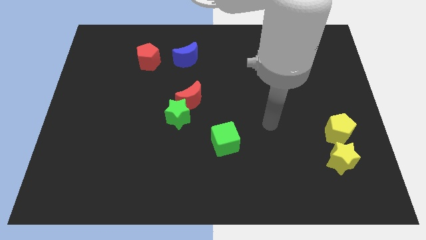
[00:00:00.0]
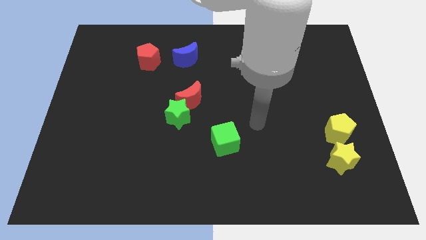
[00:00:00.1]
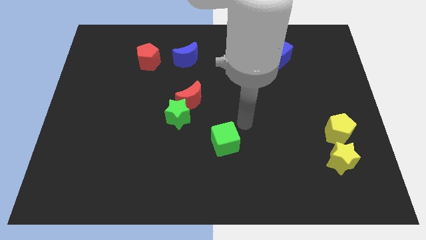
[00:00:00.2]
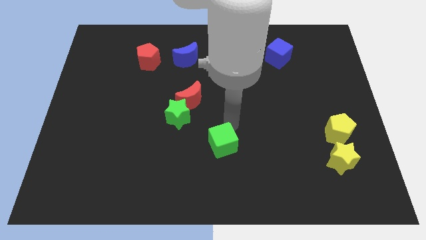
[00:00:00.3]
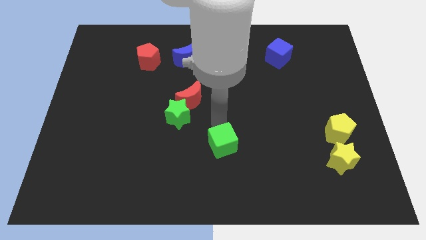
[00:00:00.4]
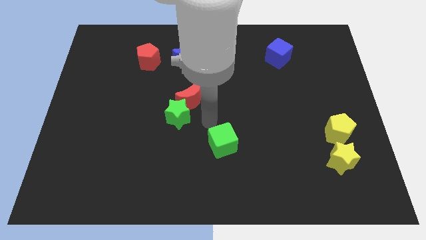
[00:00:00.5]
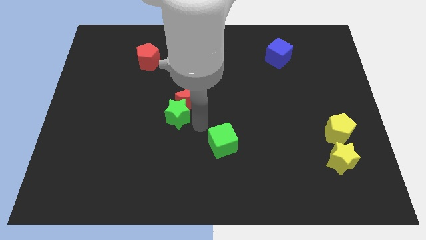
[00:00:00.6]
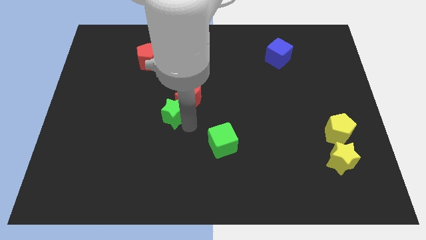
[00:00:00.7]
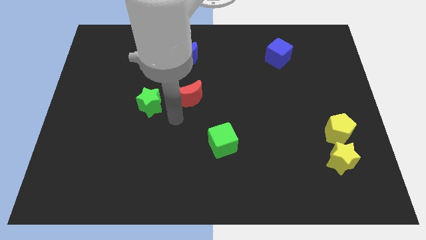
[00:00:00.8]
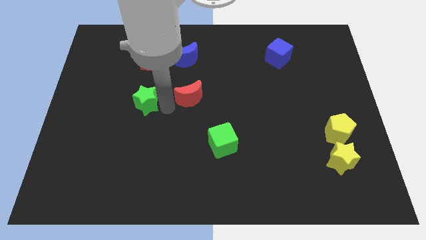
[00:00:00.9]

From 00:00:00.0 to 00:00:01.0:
pull the red moon apart from the green star

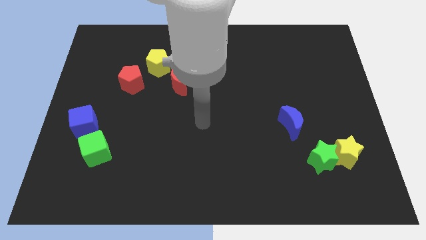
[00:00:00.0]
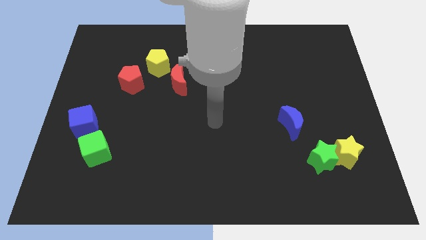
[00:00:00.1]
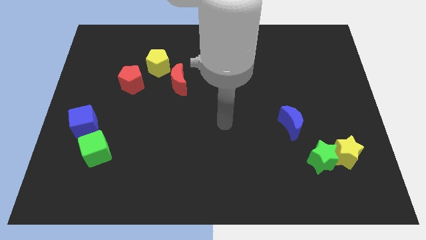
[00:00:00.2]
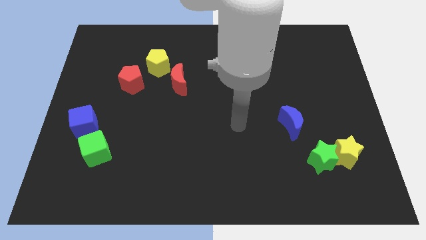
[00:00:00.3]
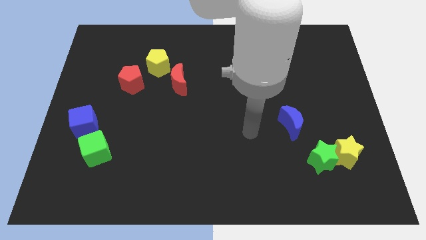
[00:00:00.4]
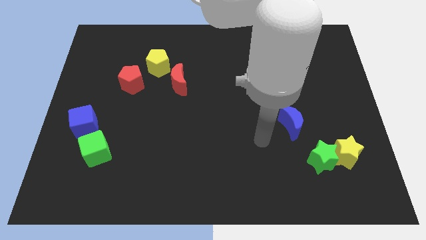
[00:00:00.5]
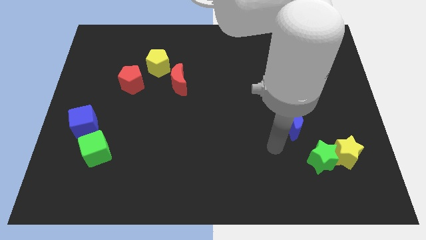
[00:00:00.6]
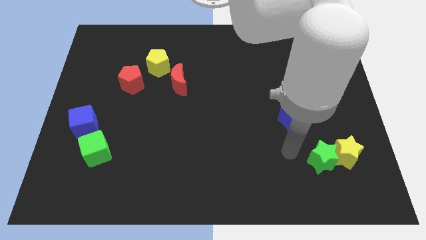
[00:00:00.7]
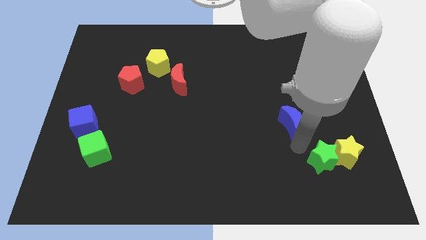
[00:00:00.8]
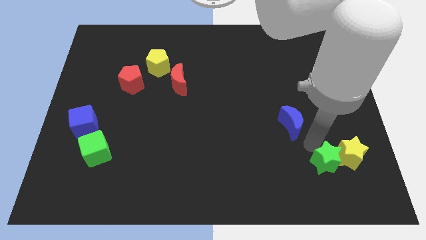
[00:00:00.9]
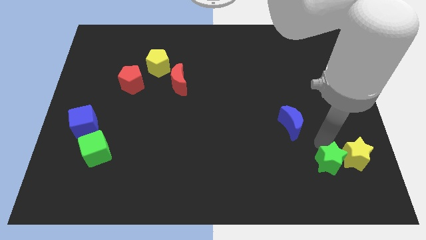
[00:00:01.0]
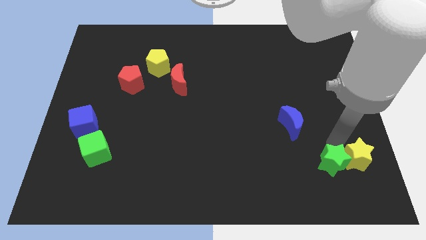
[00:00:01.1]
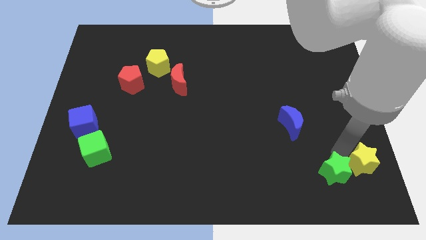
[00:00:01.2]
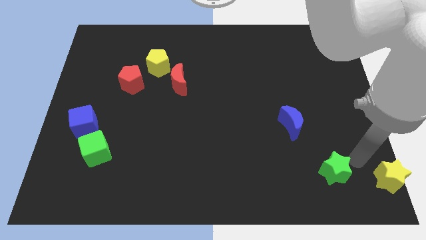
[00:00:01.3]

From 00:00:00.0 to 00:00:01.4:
separate the green star from the yellow star

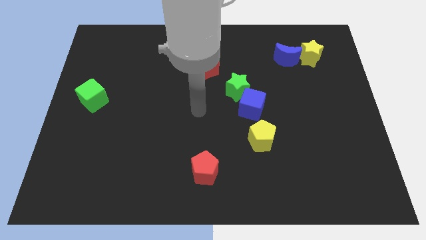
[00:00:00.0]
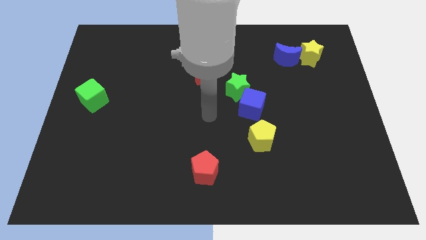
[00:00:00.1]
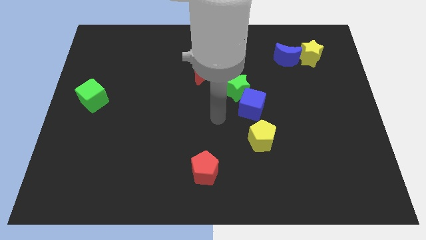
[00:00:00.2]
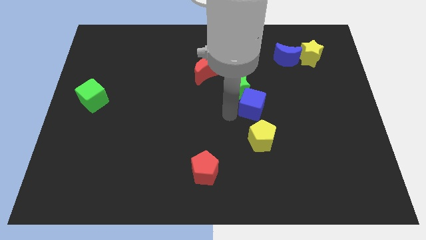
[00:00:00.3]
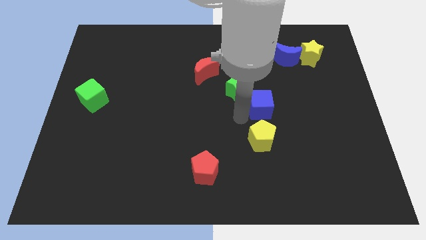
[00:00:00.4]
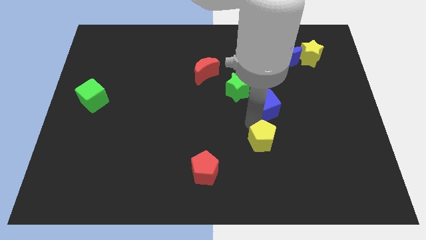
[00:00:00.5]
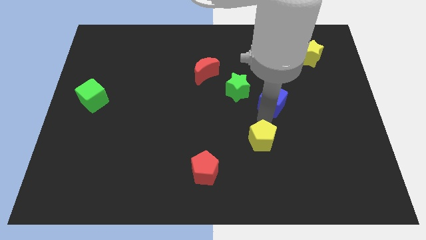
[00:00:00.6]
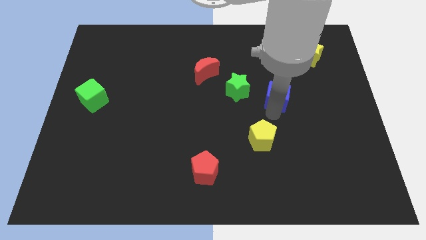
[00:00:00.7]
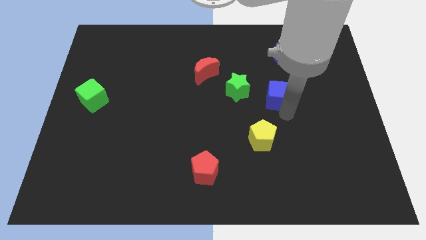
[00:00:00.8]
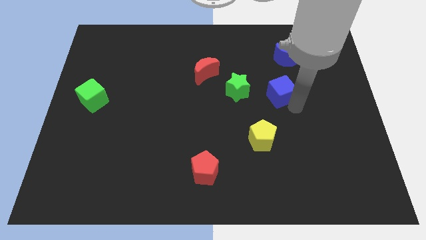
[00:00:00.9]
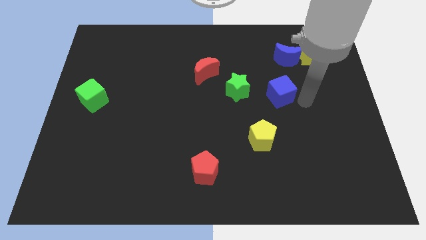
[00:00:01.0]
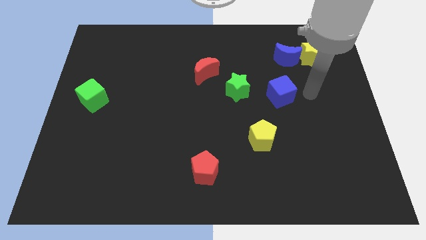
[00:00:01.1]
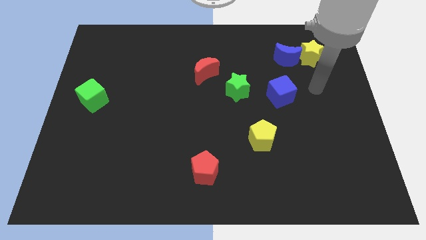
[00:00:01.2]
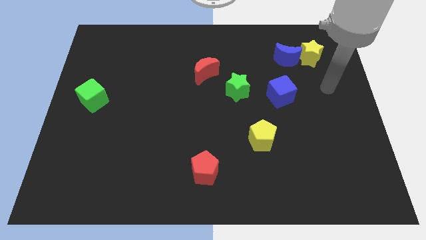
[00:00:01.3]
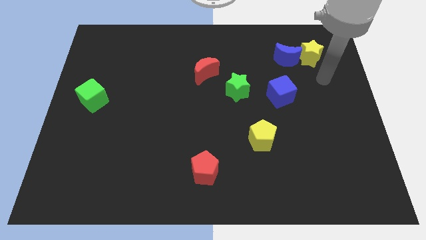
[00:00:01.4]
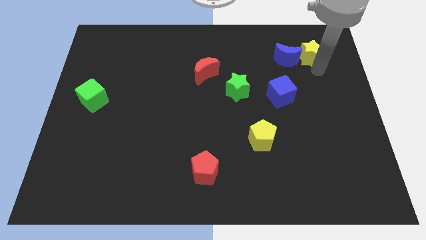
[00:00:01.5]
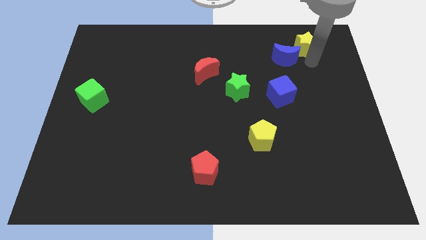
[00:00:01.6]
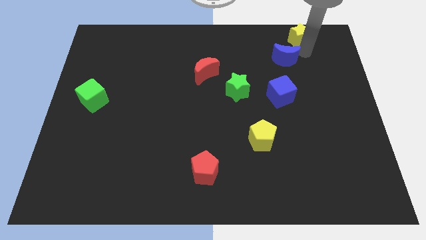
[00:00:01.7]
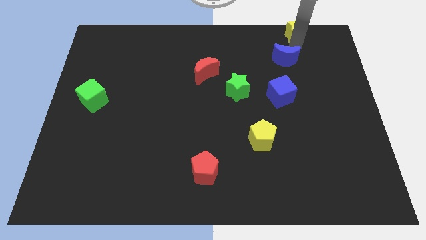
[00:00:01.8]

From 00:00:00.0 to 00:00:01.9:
move the blue moon away from the yellow star

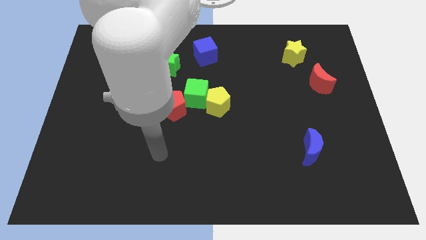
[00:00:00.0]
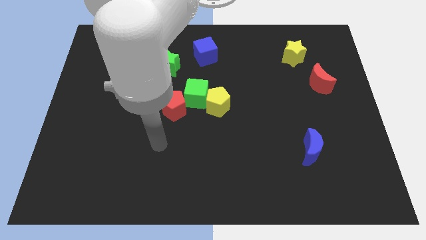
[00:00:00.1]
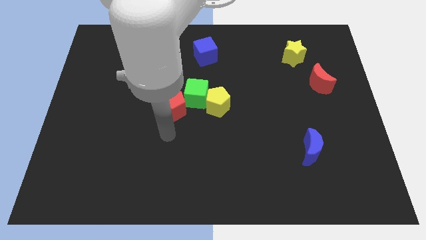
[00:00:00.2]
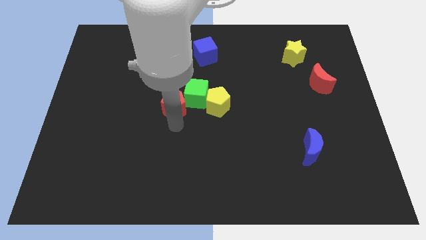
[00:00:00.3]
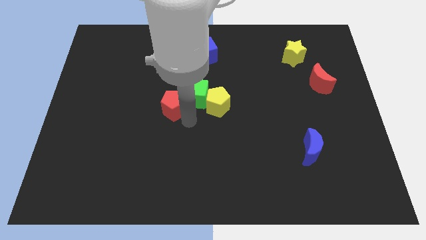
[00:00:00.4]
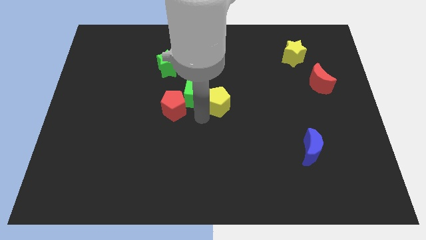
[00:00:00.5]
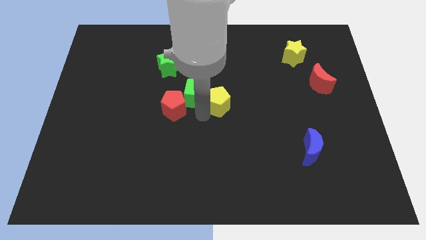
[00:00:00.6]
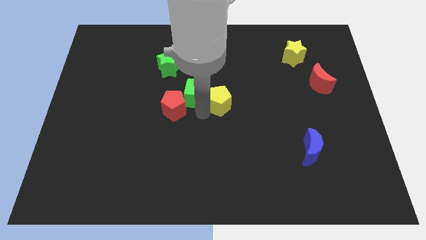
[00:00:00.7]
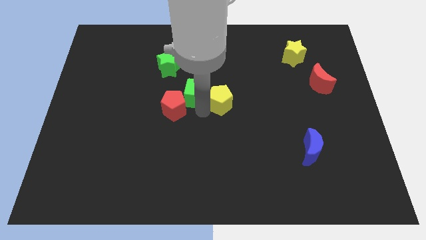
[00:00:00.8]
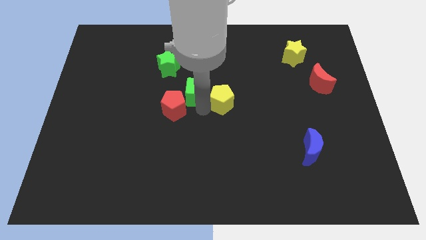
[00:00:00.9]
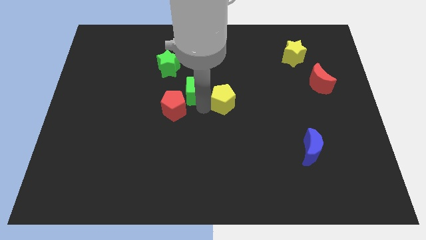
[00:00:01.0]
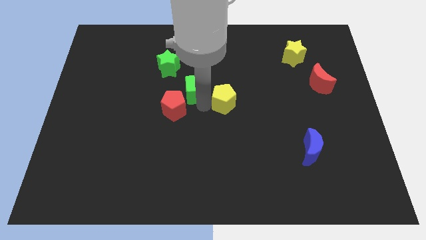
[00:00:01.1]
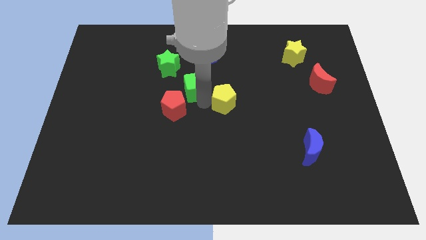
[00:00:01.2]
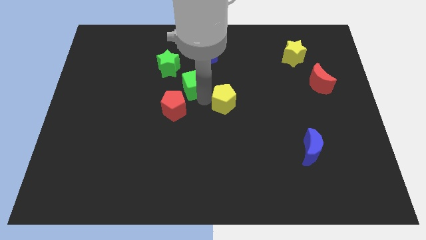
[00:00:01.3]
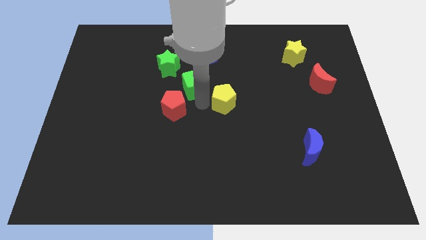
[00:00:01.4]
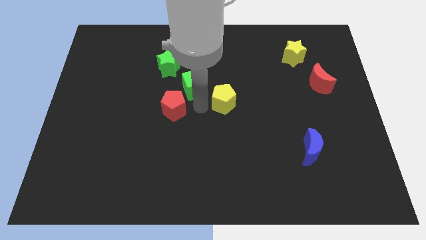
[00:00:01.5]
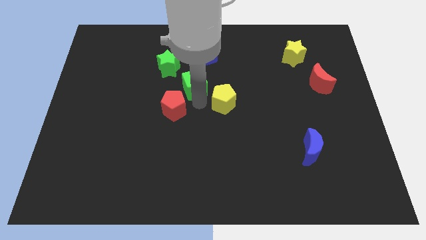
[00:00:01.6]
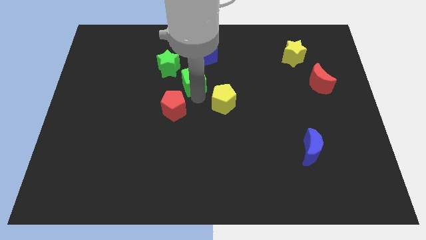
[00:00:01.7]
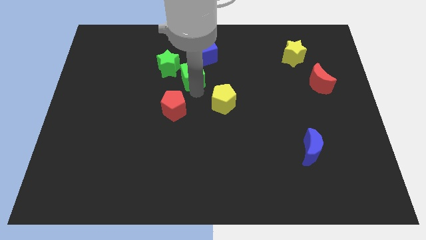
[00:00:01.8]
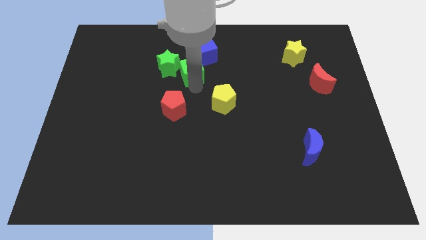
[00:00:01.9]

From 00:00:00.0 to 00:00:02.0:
move the green cube away from the yellow pentagon and red pentagon

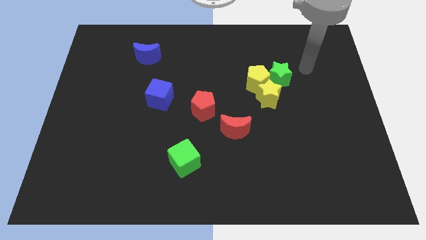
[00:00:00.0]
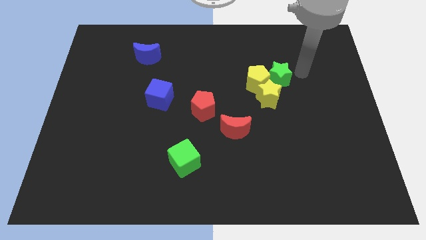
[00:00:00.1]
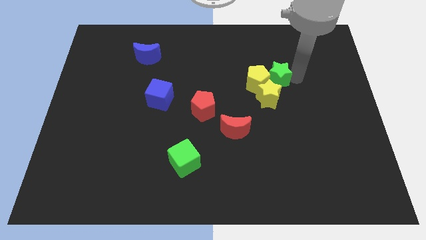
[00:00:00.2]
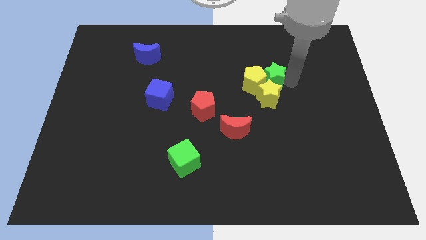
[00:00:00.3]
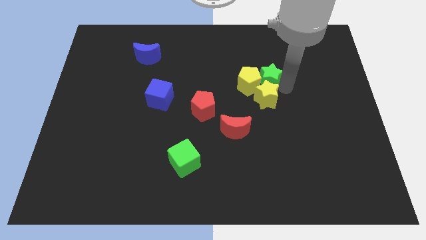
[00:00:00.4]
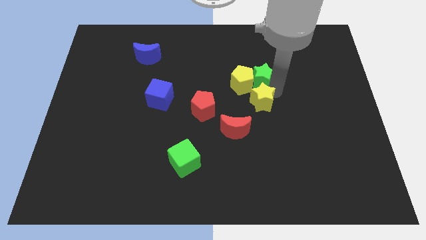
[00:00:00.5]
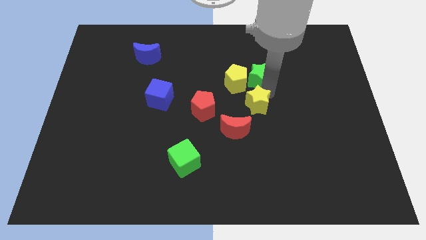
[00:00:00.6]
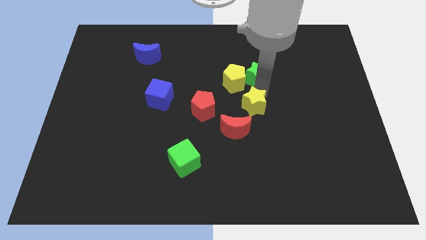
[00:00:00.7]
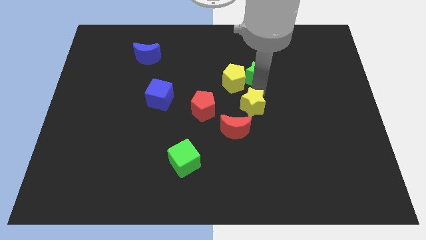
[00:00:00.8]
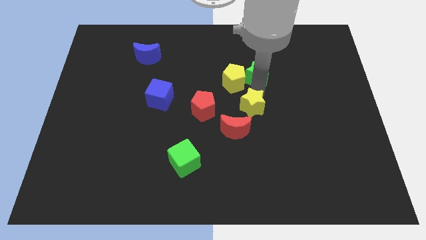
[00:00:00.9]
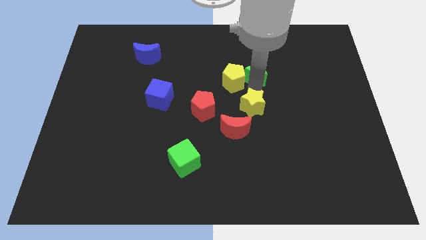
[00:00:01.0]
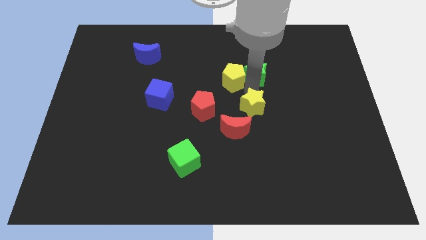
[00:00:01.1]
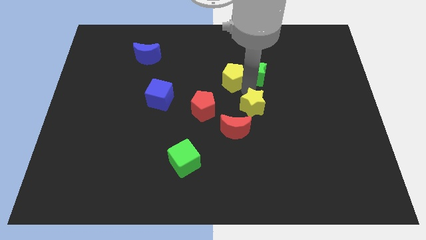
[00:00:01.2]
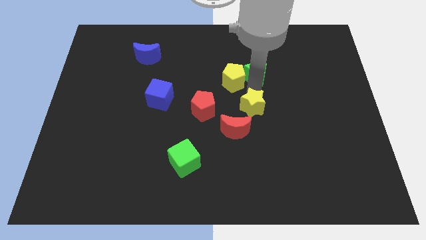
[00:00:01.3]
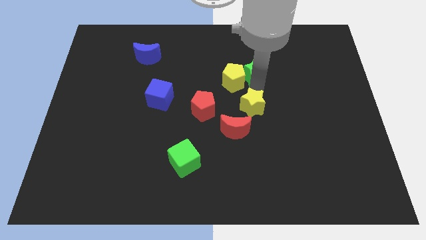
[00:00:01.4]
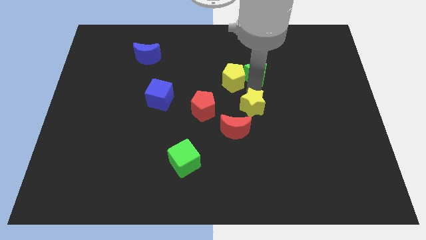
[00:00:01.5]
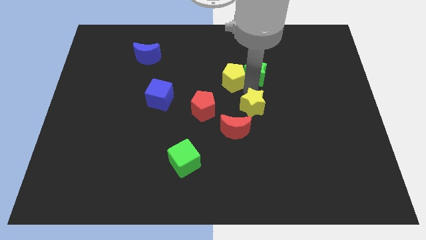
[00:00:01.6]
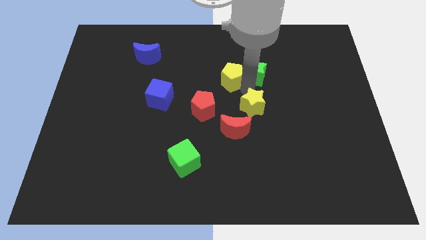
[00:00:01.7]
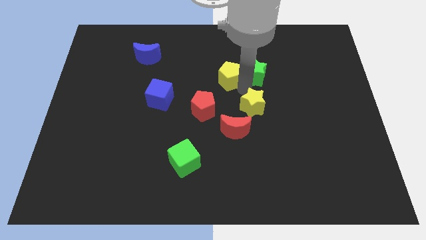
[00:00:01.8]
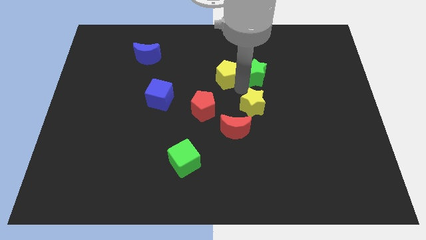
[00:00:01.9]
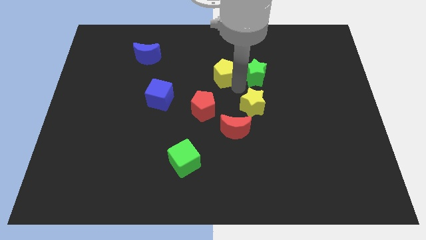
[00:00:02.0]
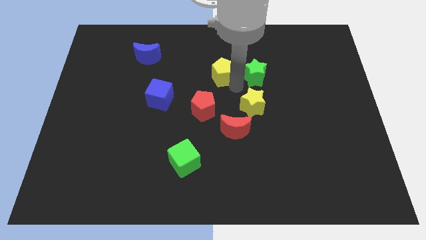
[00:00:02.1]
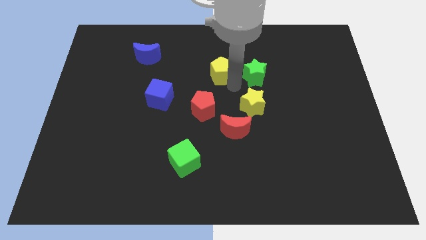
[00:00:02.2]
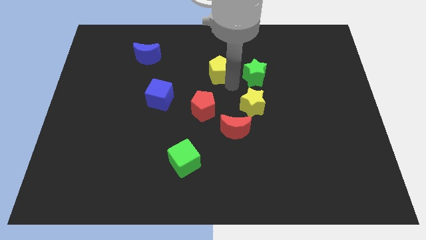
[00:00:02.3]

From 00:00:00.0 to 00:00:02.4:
pull the yellow pentagon apart from the green star and yellow star

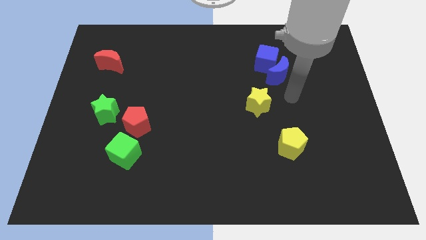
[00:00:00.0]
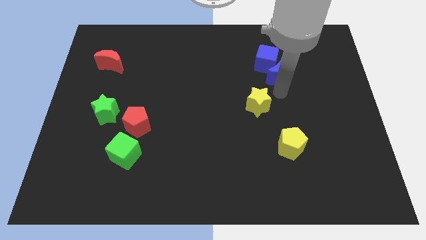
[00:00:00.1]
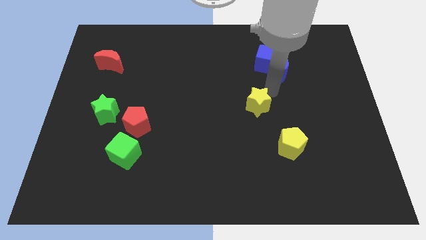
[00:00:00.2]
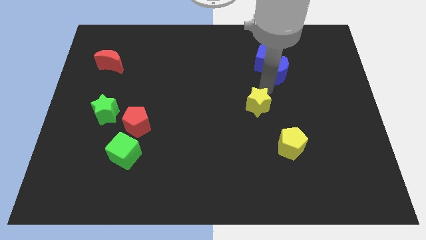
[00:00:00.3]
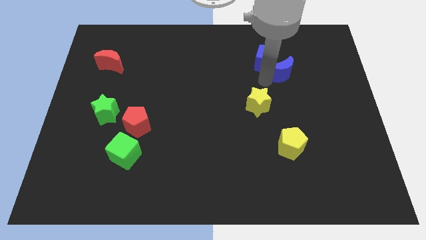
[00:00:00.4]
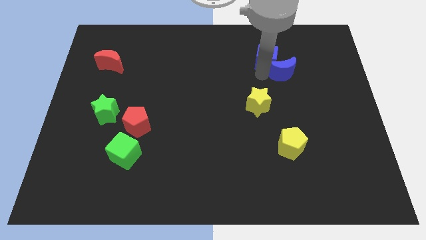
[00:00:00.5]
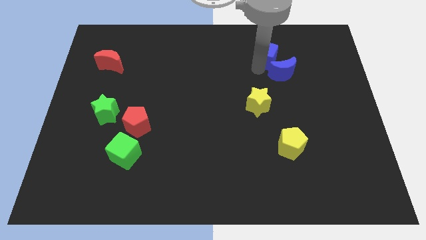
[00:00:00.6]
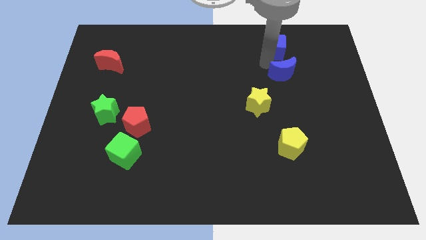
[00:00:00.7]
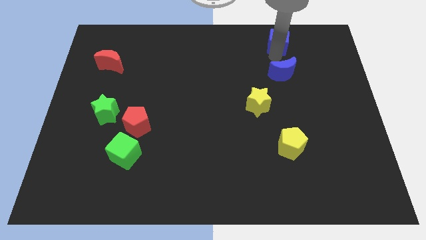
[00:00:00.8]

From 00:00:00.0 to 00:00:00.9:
separate the blue moon from the blue cube
